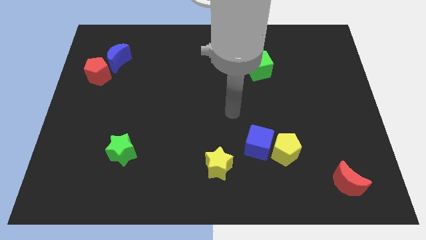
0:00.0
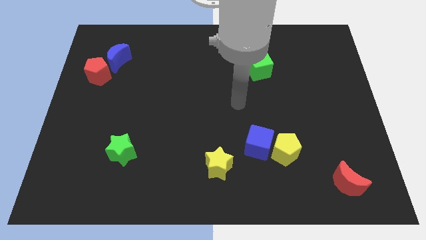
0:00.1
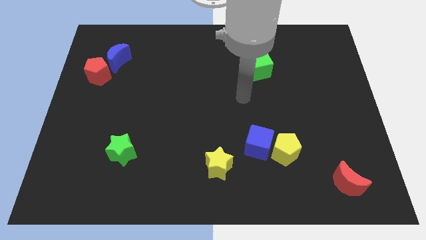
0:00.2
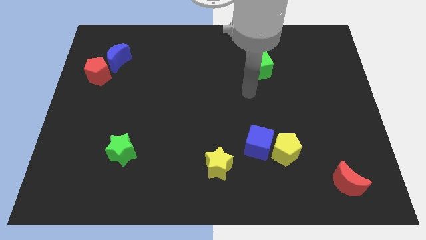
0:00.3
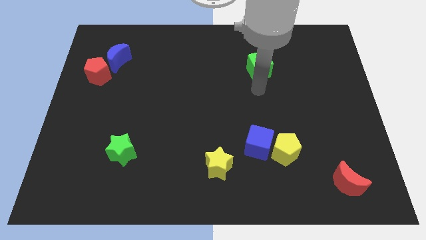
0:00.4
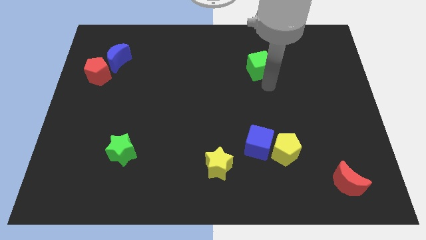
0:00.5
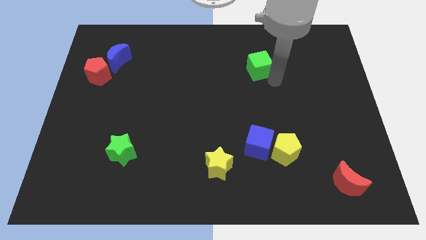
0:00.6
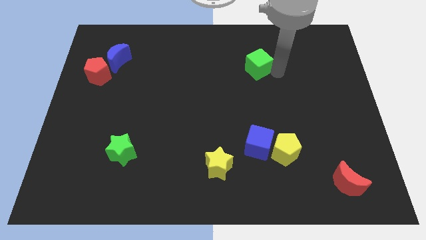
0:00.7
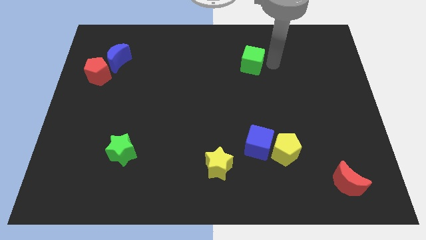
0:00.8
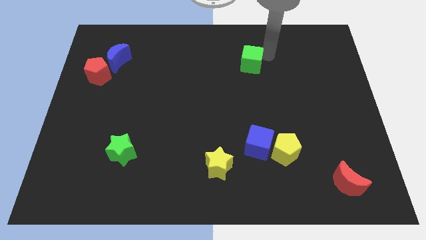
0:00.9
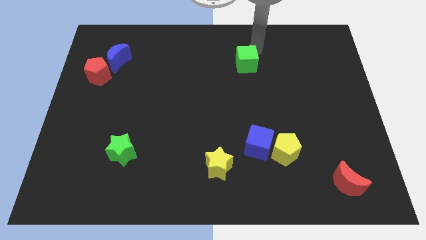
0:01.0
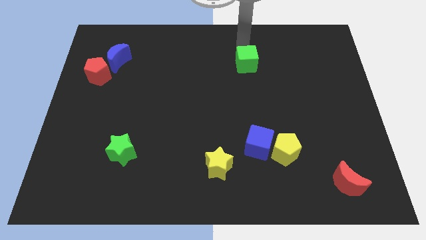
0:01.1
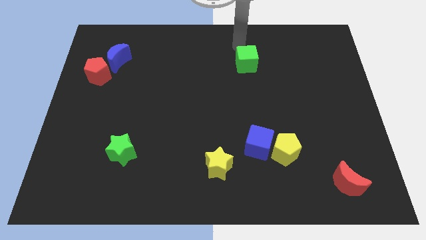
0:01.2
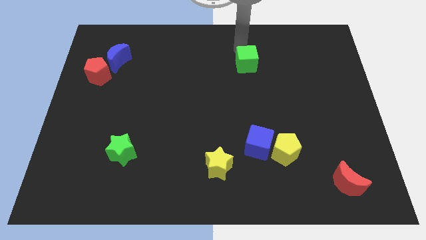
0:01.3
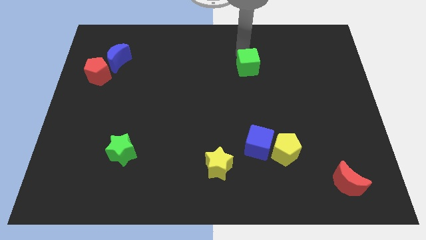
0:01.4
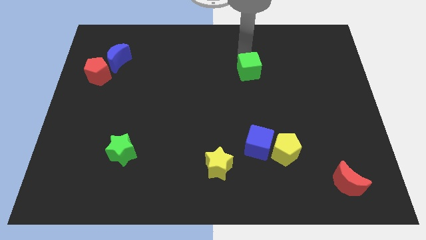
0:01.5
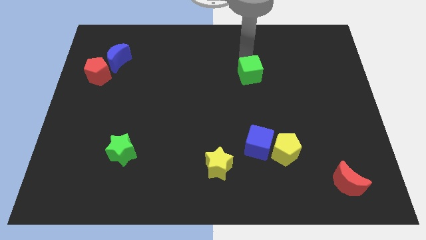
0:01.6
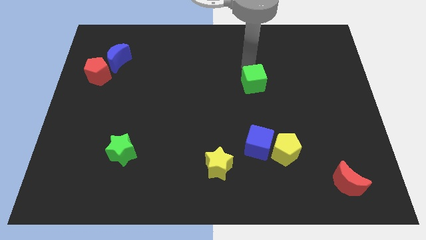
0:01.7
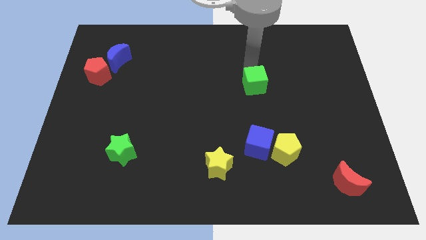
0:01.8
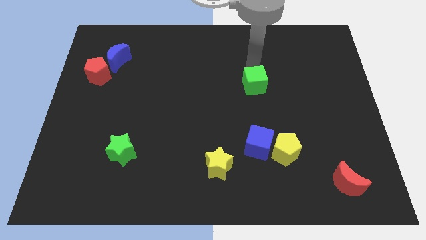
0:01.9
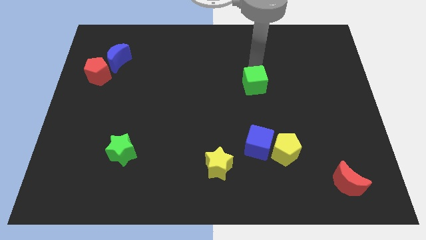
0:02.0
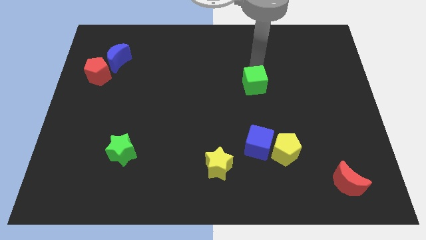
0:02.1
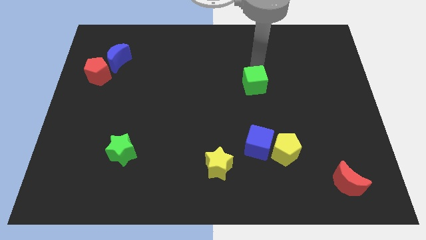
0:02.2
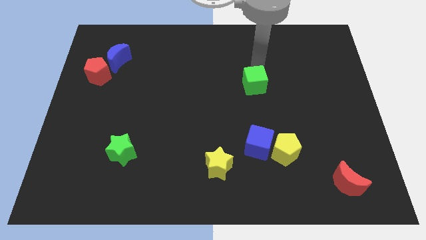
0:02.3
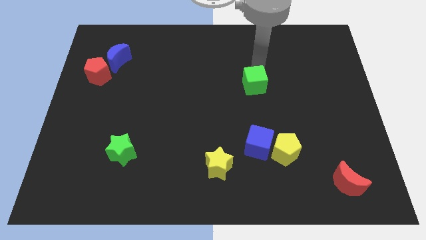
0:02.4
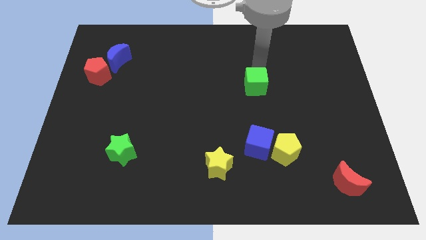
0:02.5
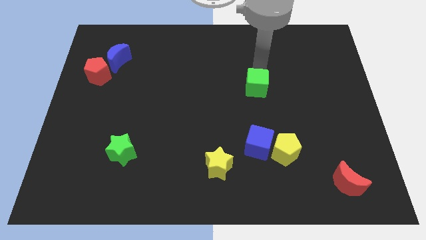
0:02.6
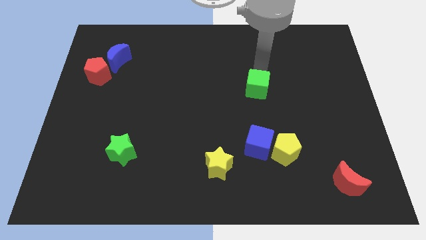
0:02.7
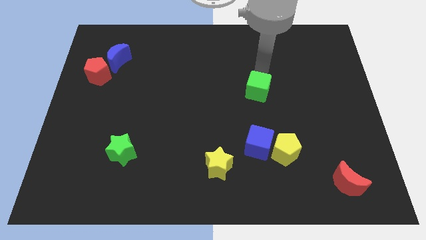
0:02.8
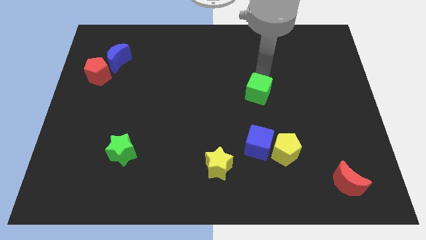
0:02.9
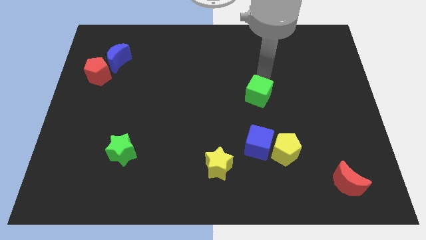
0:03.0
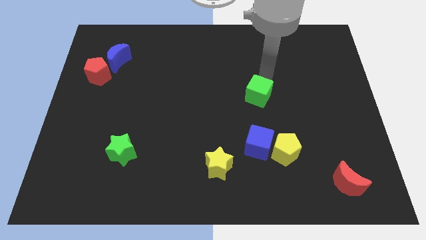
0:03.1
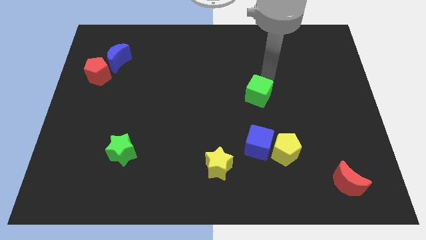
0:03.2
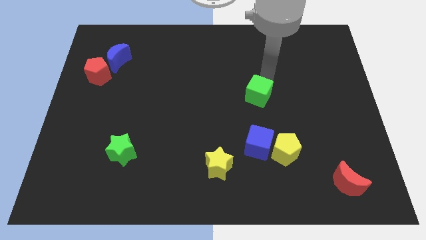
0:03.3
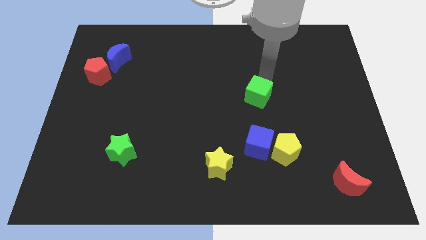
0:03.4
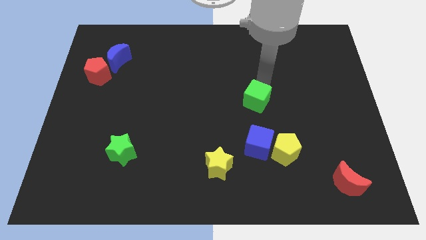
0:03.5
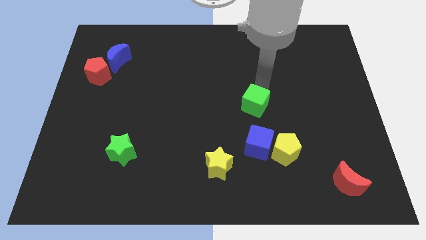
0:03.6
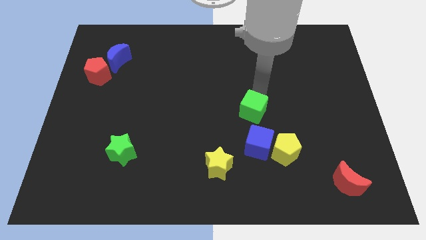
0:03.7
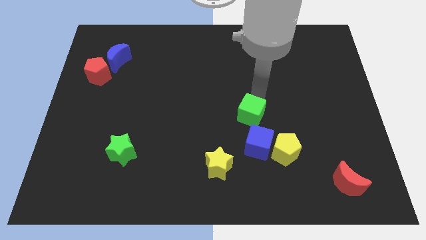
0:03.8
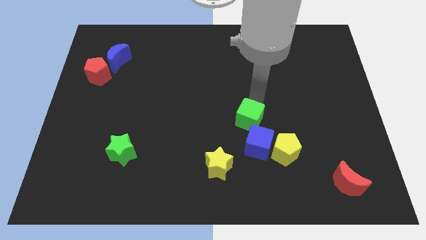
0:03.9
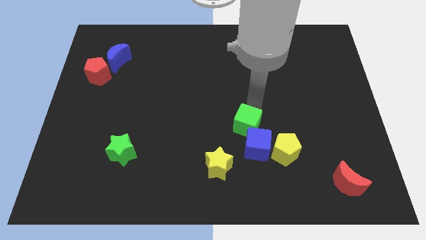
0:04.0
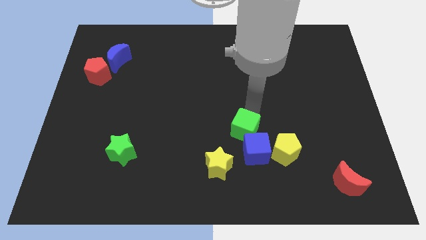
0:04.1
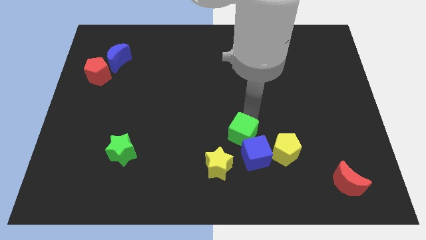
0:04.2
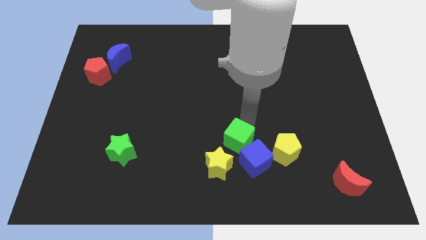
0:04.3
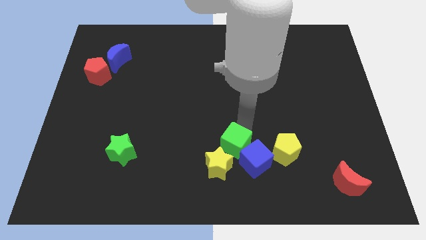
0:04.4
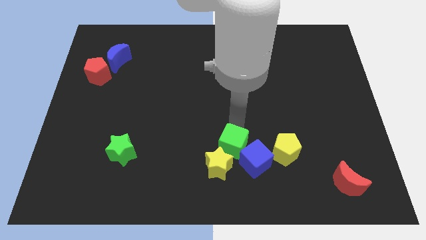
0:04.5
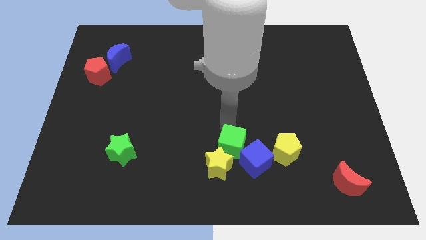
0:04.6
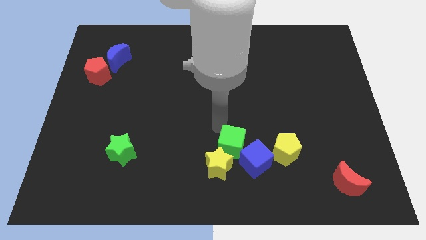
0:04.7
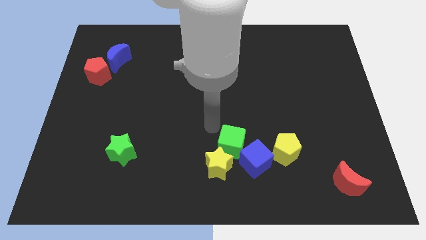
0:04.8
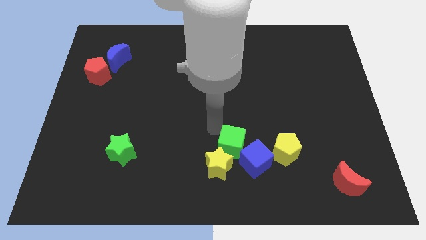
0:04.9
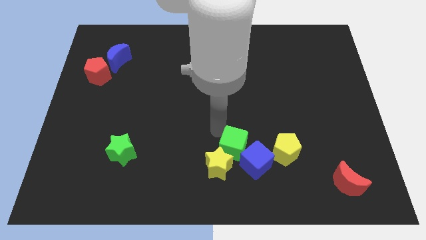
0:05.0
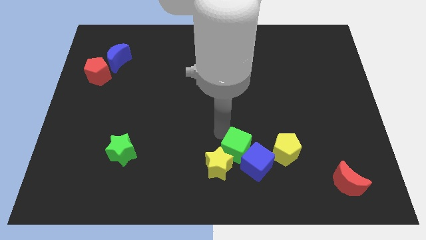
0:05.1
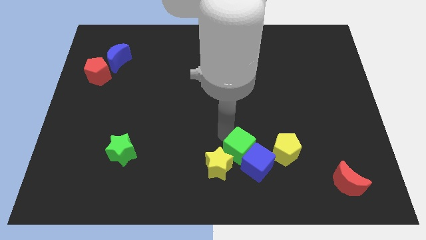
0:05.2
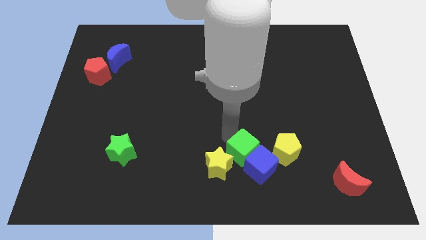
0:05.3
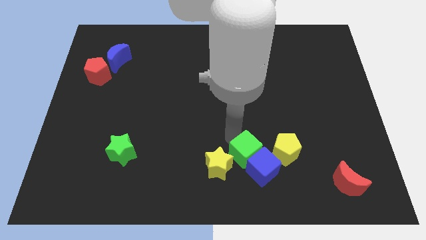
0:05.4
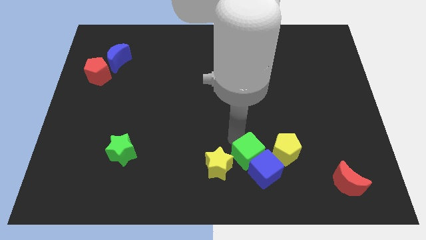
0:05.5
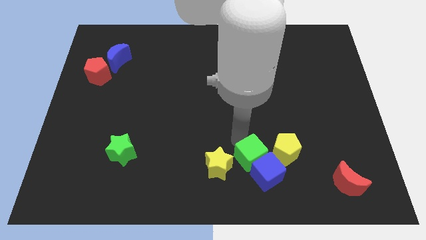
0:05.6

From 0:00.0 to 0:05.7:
move the green cube diagonally down and to the left of the yellow pentagon
